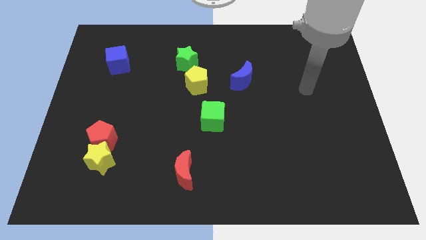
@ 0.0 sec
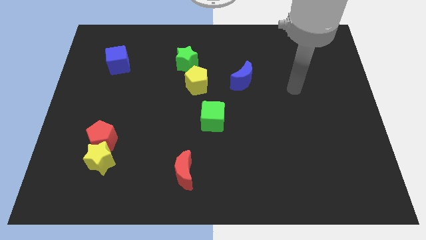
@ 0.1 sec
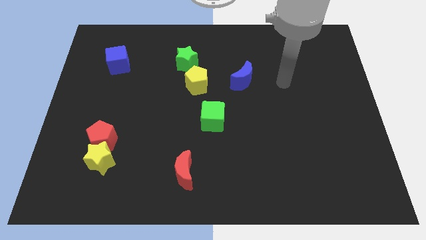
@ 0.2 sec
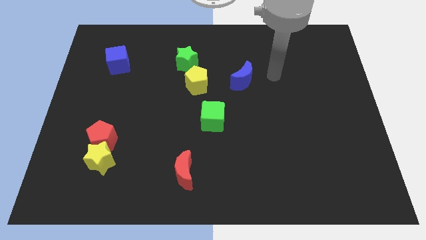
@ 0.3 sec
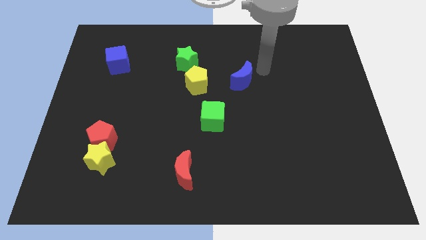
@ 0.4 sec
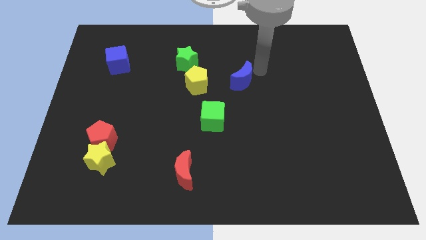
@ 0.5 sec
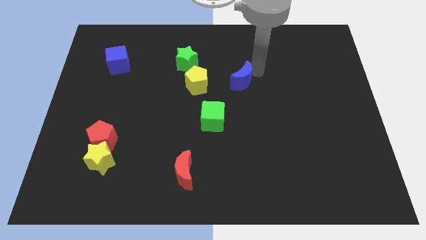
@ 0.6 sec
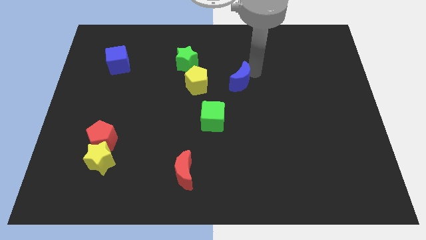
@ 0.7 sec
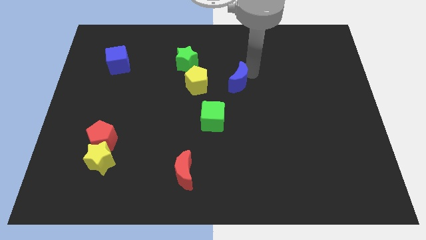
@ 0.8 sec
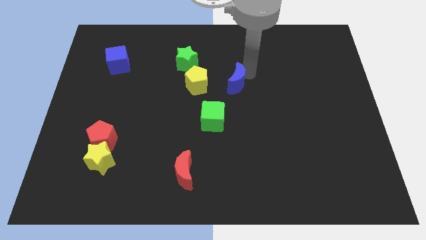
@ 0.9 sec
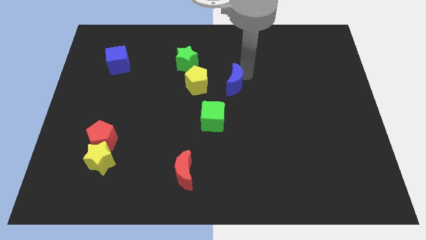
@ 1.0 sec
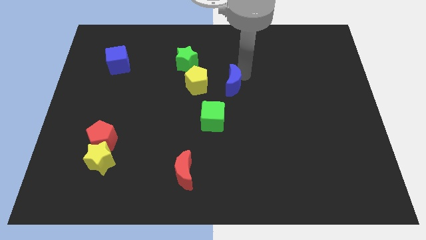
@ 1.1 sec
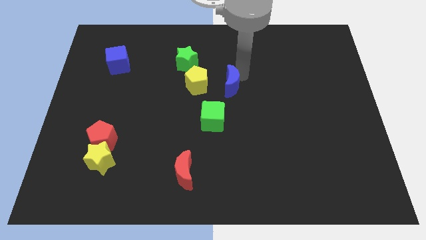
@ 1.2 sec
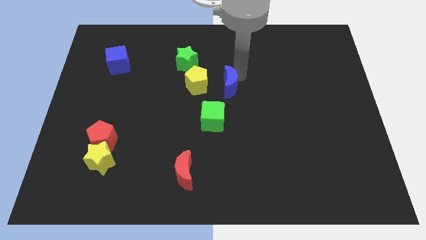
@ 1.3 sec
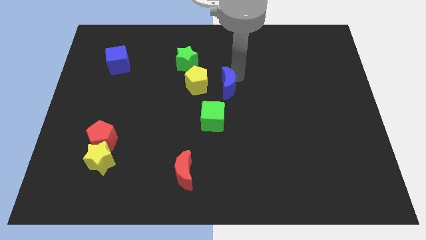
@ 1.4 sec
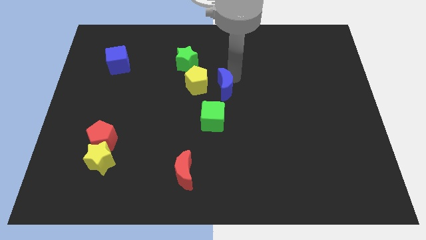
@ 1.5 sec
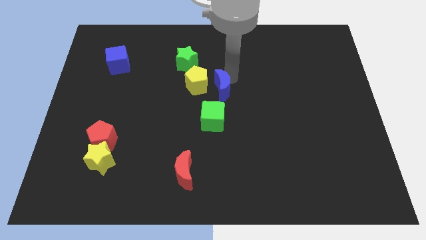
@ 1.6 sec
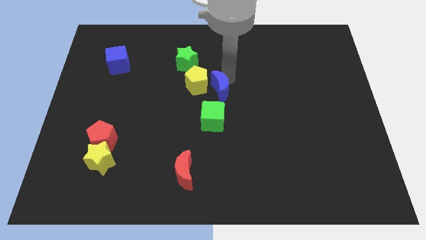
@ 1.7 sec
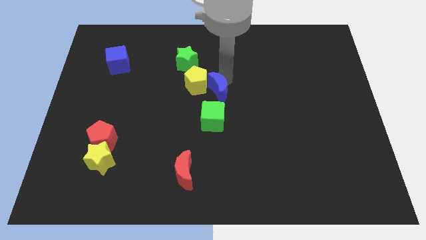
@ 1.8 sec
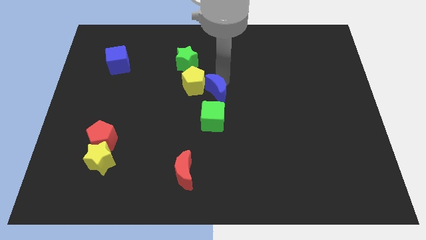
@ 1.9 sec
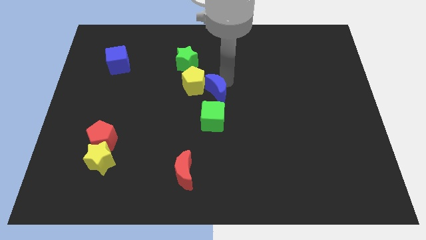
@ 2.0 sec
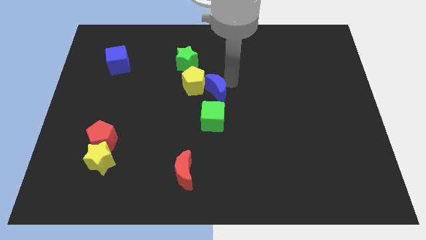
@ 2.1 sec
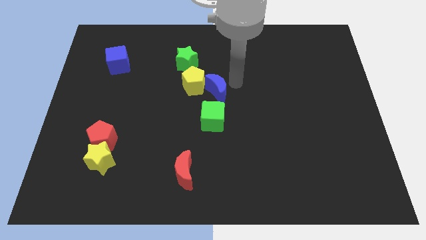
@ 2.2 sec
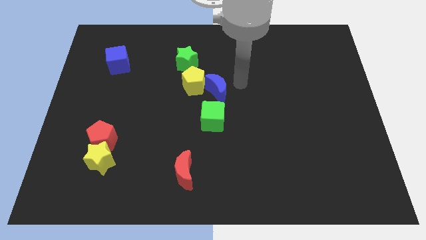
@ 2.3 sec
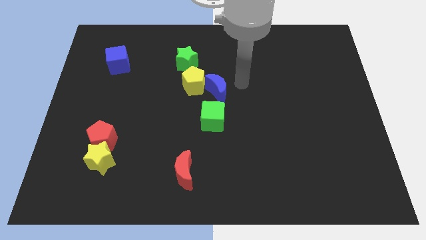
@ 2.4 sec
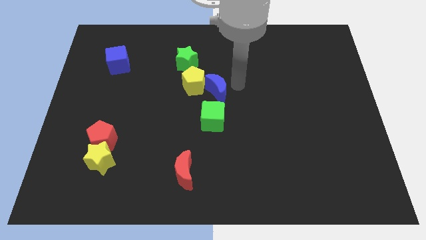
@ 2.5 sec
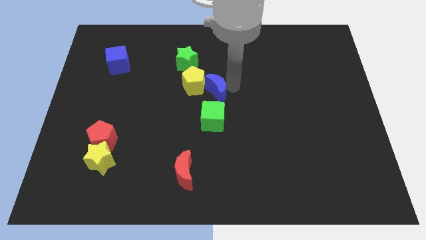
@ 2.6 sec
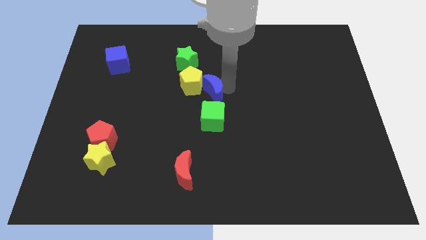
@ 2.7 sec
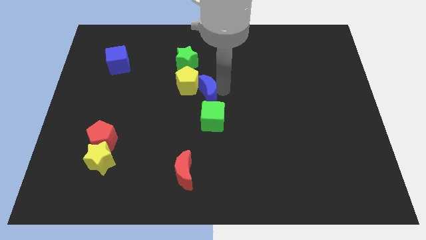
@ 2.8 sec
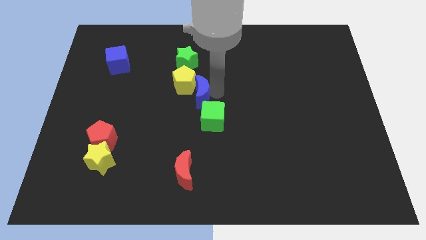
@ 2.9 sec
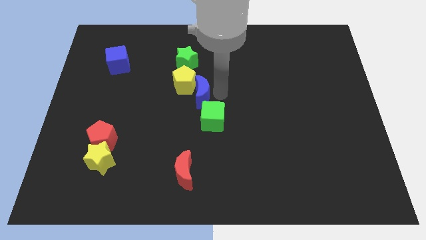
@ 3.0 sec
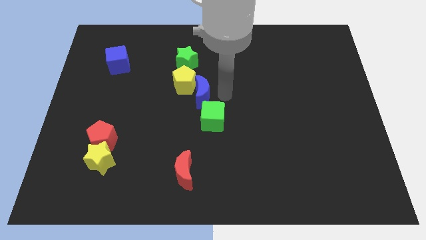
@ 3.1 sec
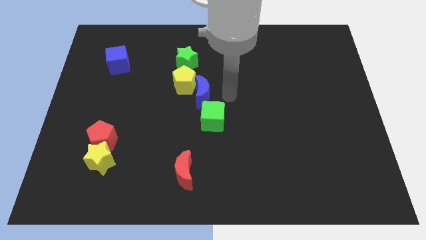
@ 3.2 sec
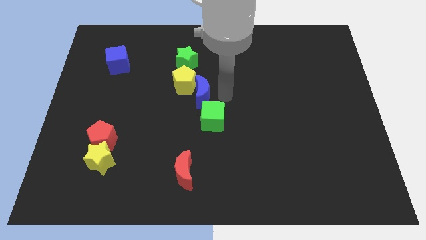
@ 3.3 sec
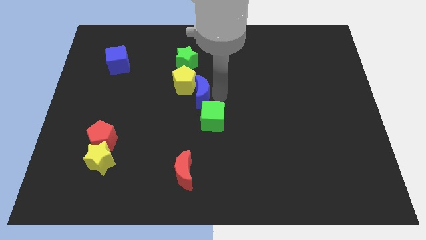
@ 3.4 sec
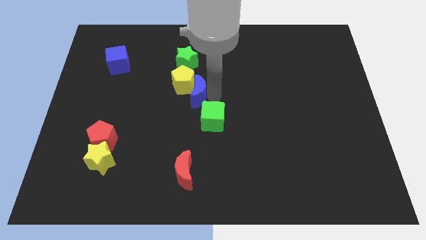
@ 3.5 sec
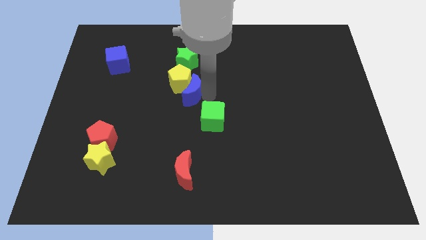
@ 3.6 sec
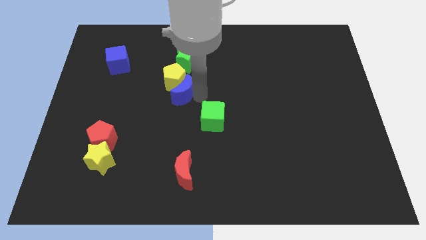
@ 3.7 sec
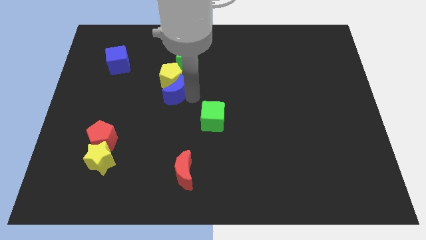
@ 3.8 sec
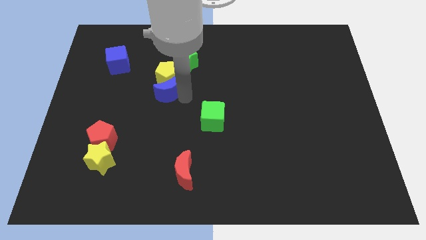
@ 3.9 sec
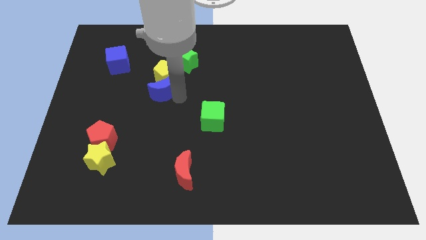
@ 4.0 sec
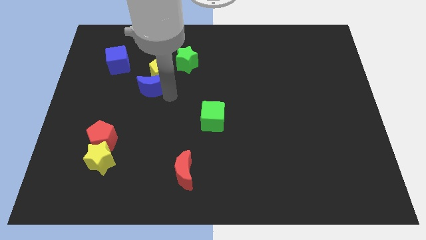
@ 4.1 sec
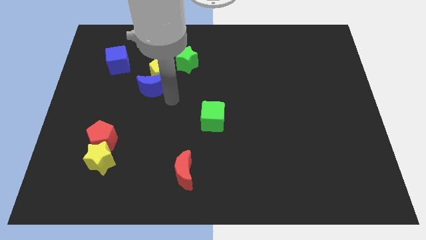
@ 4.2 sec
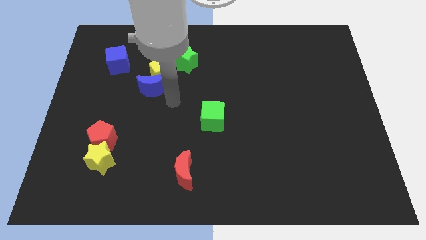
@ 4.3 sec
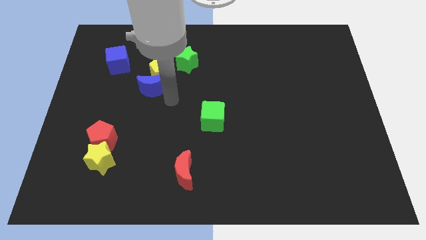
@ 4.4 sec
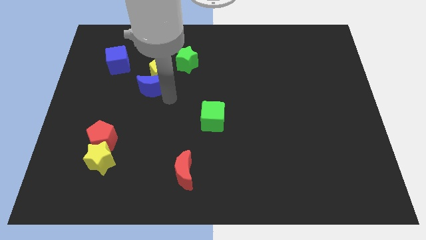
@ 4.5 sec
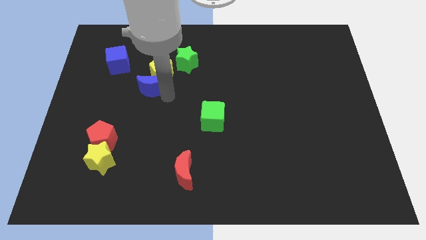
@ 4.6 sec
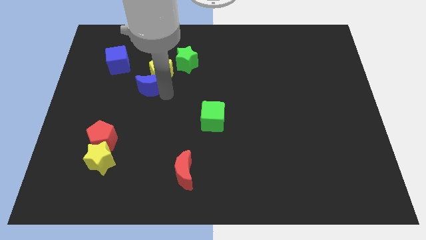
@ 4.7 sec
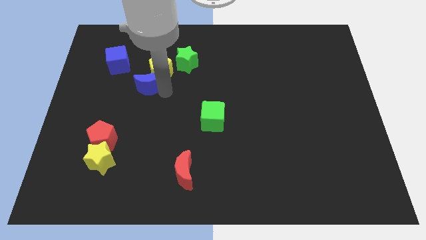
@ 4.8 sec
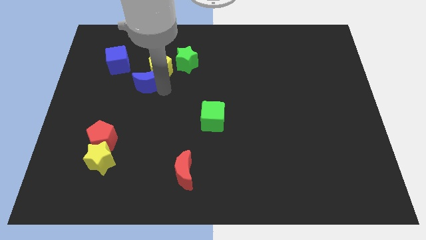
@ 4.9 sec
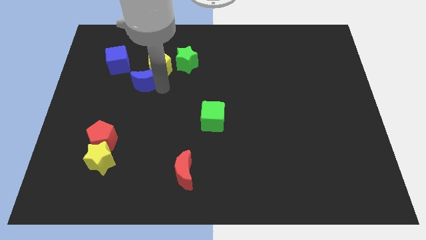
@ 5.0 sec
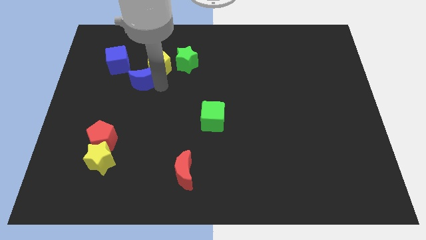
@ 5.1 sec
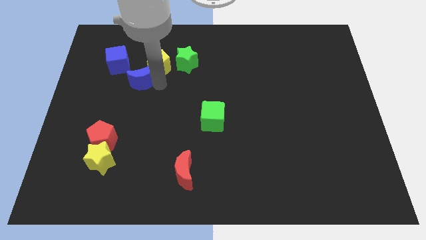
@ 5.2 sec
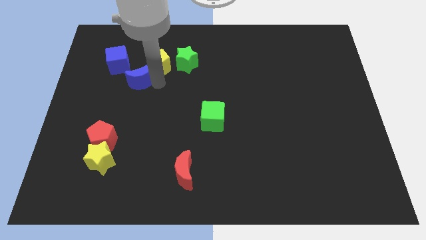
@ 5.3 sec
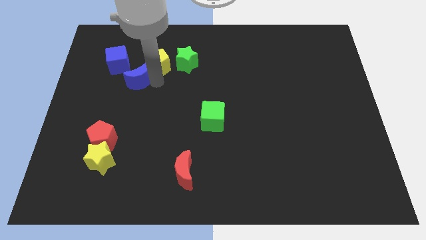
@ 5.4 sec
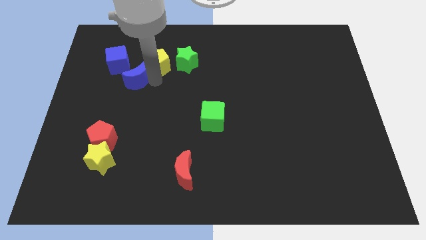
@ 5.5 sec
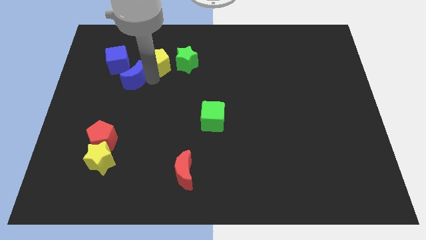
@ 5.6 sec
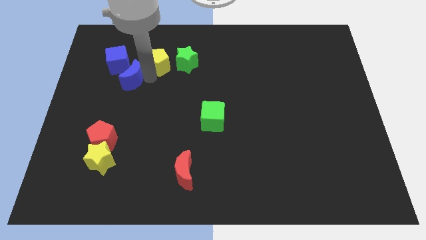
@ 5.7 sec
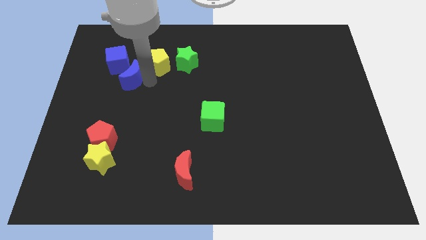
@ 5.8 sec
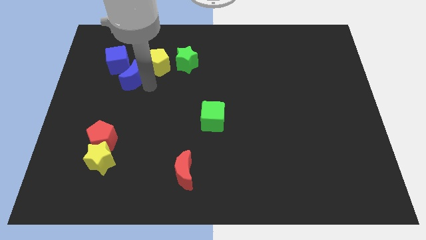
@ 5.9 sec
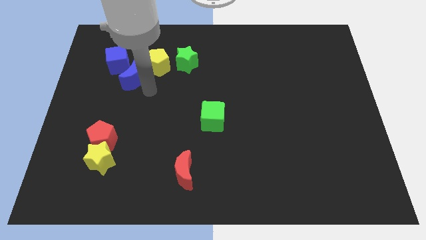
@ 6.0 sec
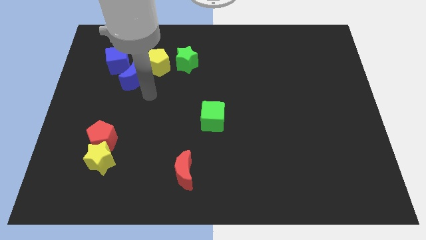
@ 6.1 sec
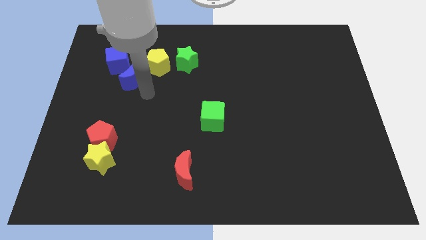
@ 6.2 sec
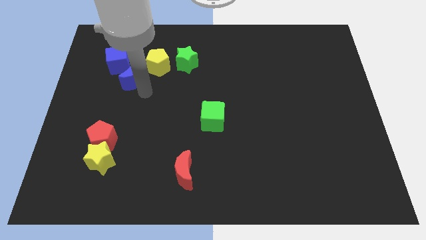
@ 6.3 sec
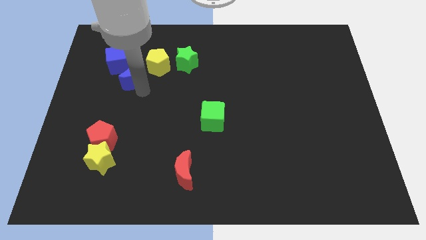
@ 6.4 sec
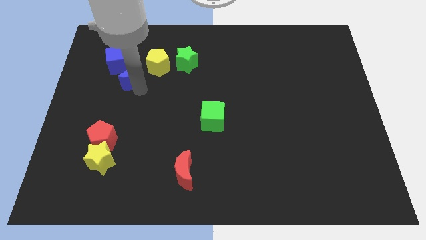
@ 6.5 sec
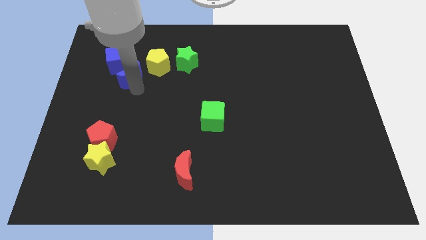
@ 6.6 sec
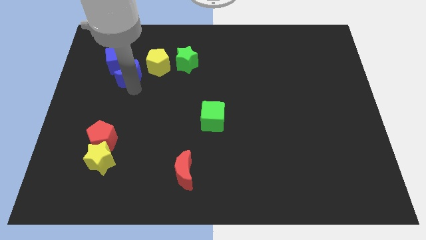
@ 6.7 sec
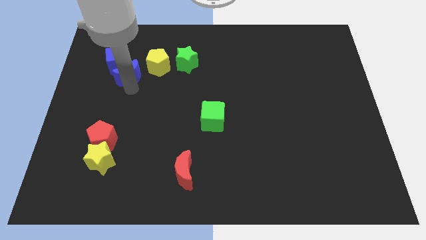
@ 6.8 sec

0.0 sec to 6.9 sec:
put the blue moon to the blue cube
